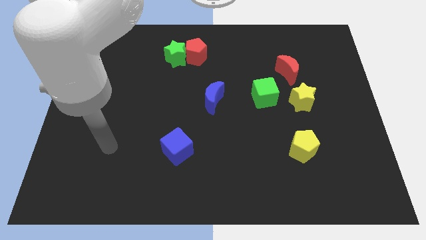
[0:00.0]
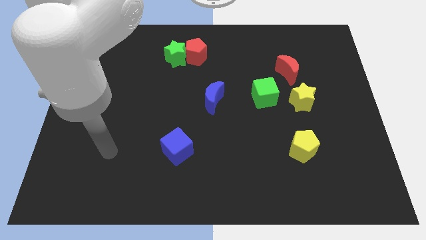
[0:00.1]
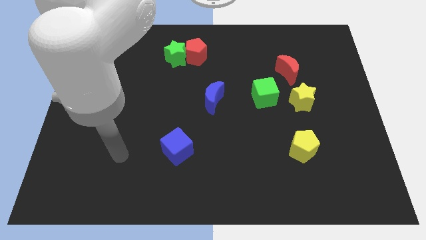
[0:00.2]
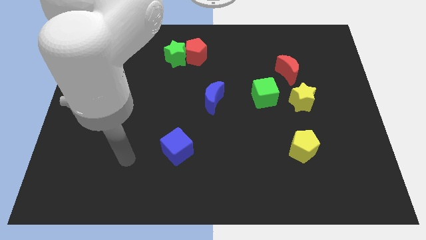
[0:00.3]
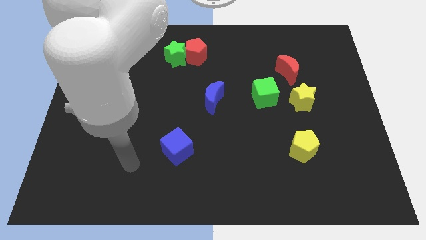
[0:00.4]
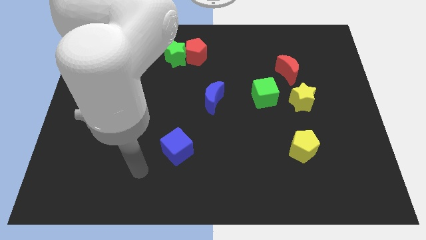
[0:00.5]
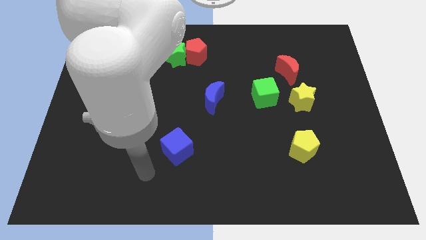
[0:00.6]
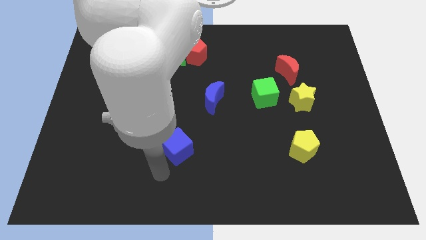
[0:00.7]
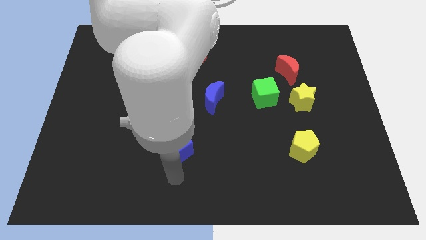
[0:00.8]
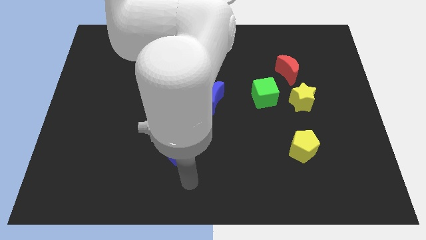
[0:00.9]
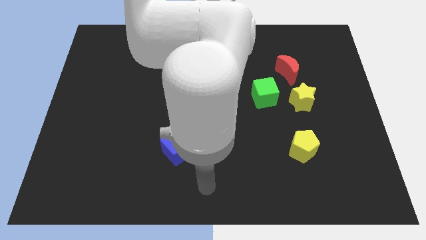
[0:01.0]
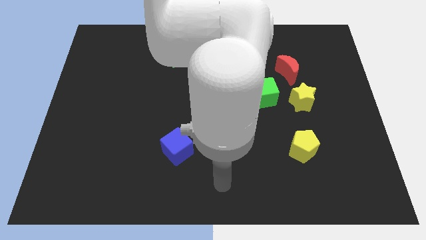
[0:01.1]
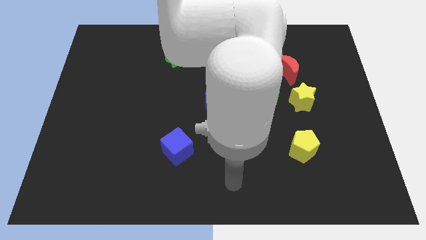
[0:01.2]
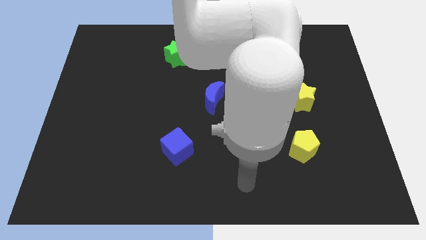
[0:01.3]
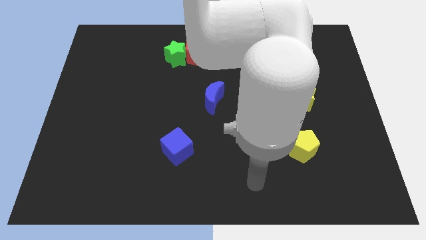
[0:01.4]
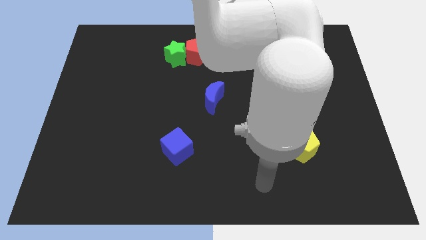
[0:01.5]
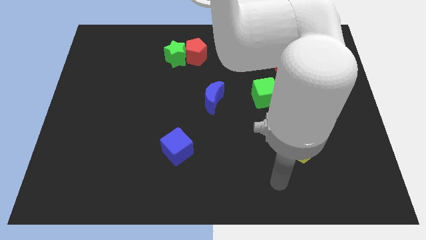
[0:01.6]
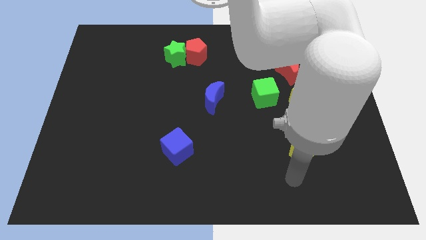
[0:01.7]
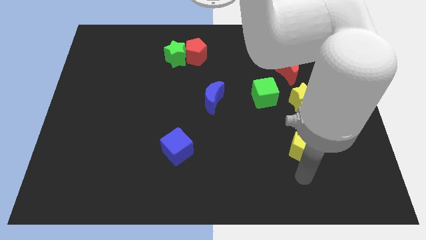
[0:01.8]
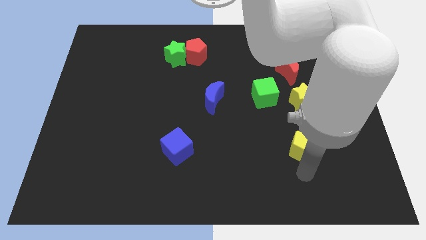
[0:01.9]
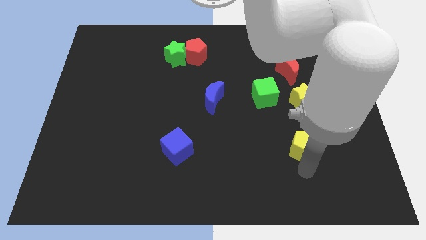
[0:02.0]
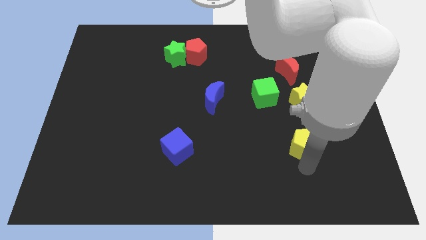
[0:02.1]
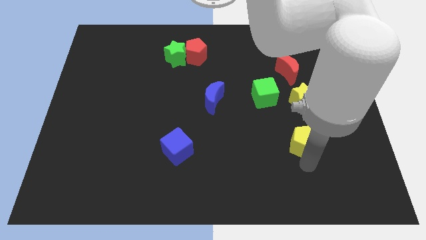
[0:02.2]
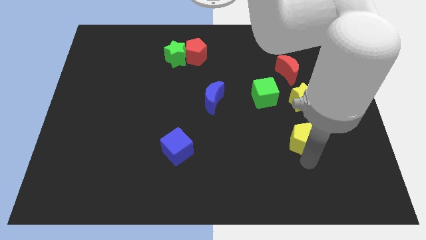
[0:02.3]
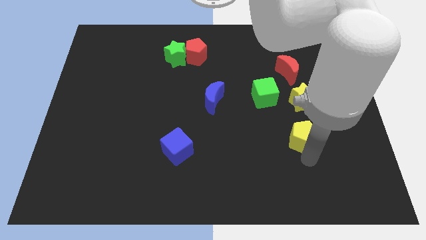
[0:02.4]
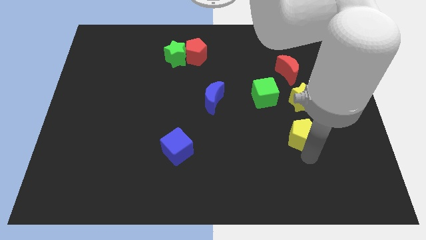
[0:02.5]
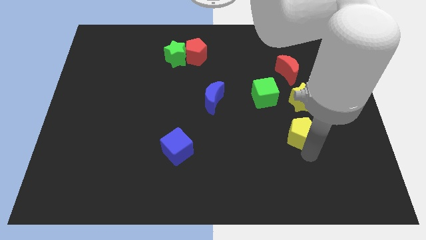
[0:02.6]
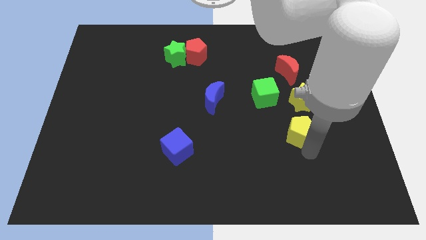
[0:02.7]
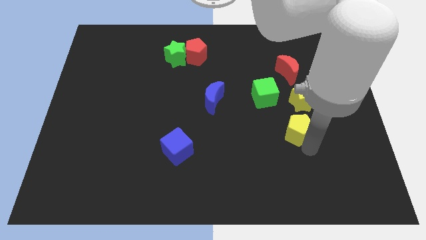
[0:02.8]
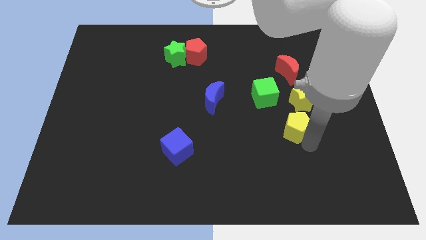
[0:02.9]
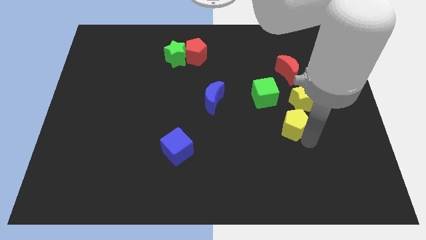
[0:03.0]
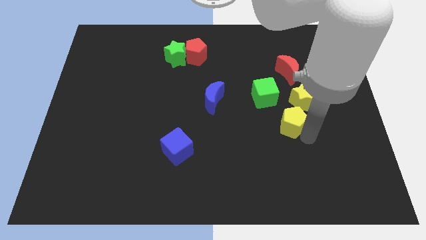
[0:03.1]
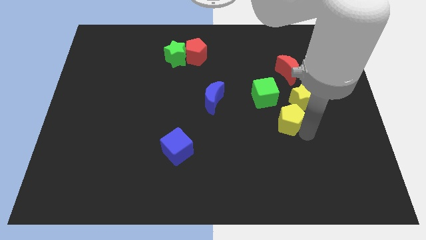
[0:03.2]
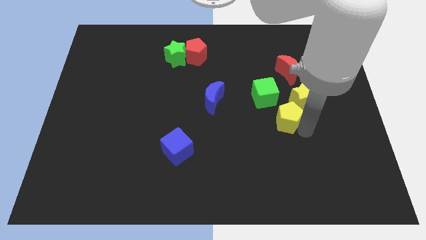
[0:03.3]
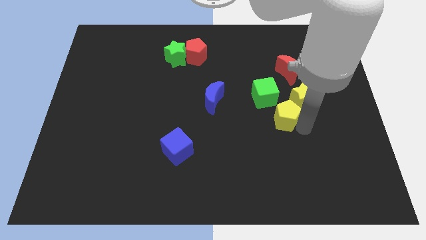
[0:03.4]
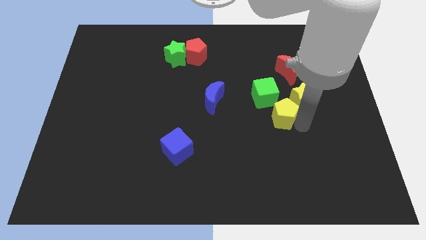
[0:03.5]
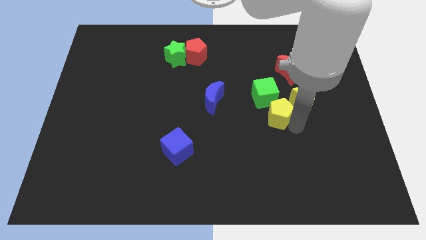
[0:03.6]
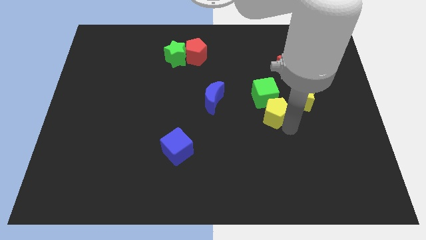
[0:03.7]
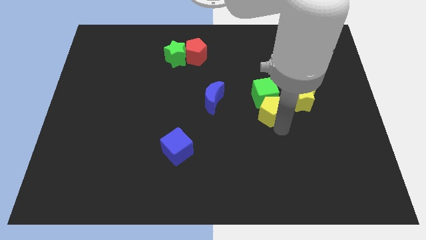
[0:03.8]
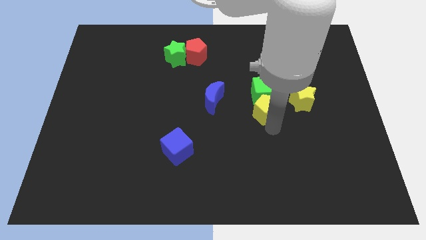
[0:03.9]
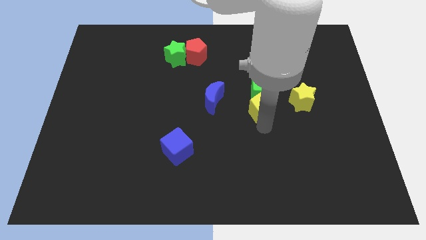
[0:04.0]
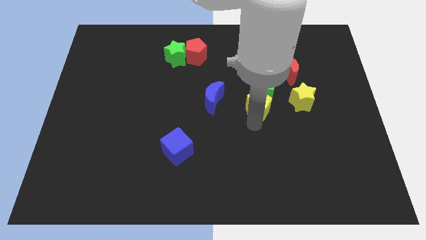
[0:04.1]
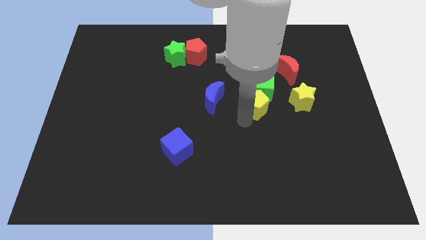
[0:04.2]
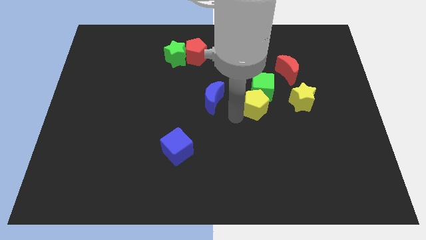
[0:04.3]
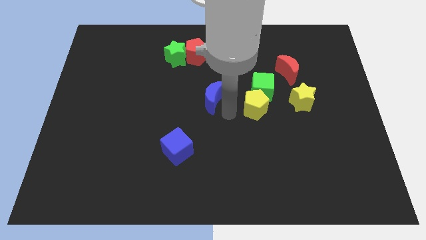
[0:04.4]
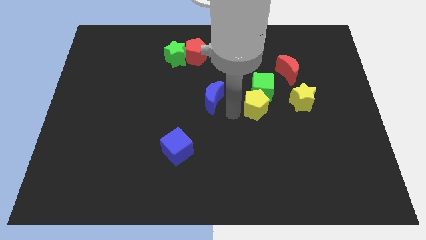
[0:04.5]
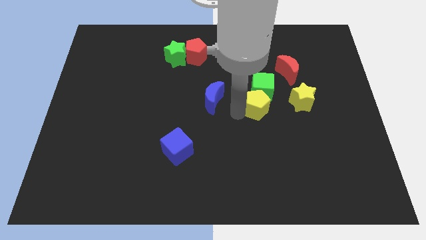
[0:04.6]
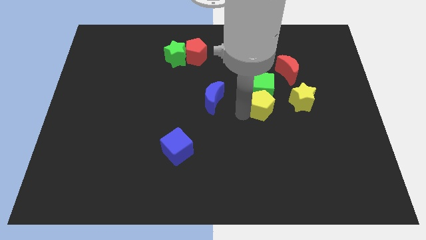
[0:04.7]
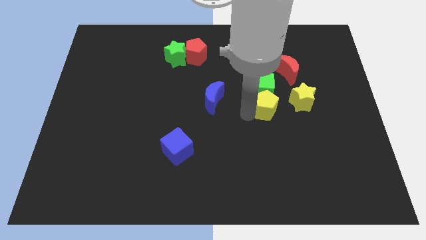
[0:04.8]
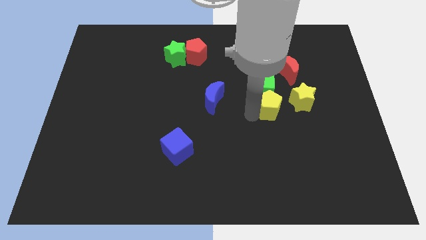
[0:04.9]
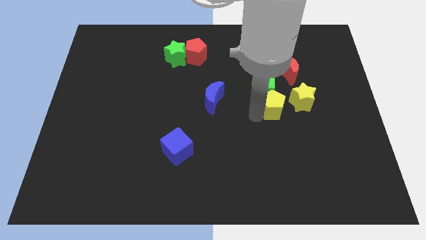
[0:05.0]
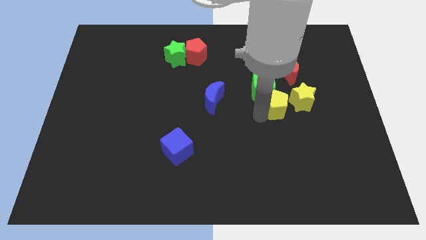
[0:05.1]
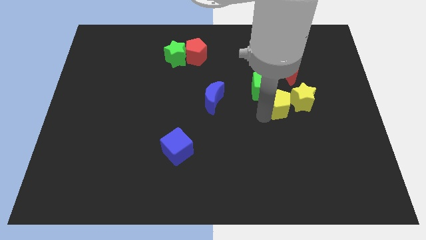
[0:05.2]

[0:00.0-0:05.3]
put the yellow pentagon to the yellow star

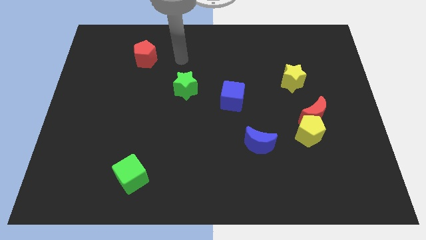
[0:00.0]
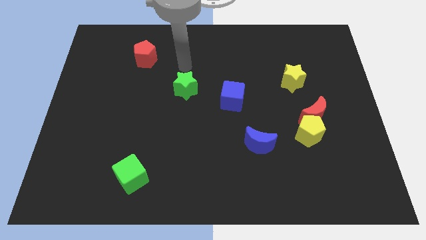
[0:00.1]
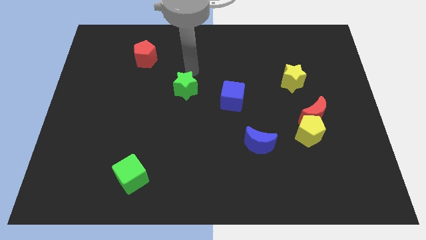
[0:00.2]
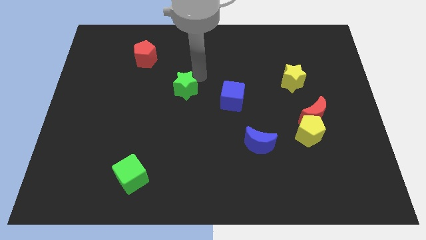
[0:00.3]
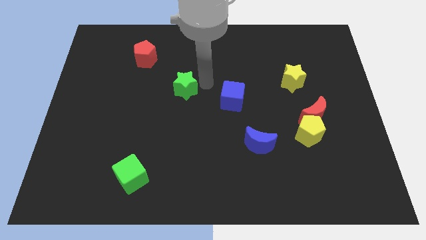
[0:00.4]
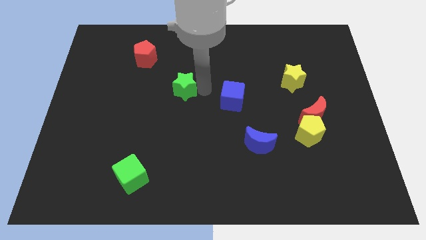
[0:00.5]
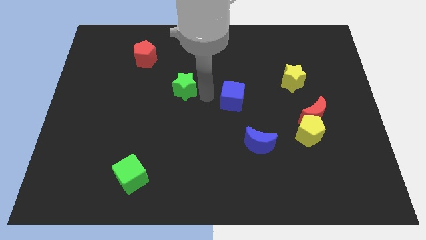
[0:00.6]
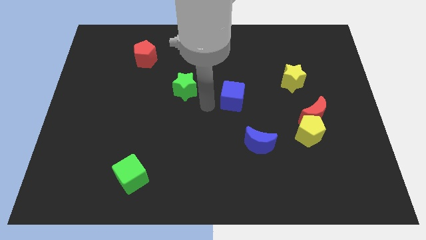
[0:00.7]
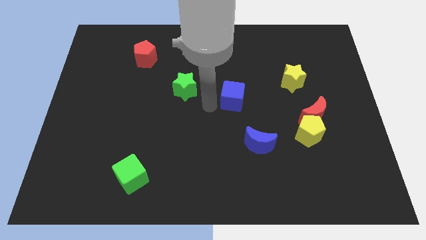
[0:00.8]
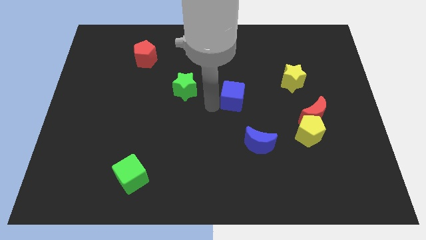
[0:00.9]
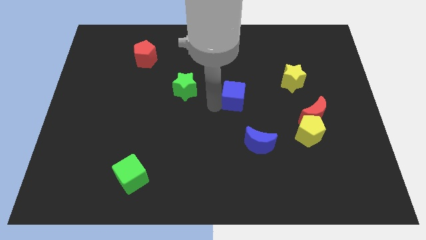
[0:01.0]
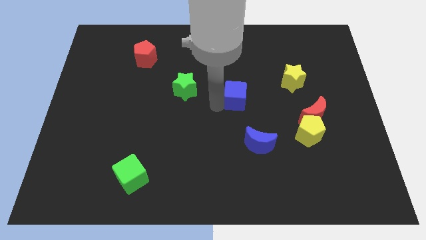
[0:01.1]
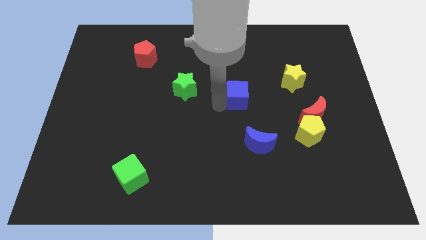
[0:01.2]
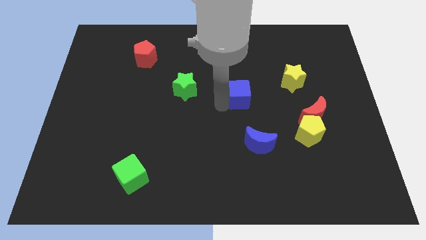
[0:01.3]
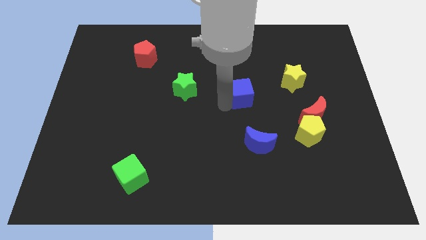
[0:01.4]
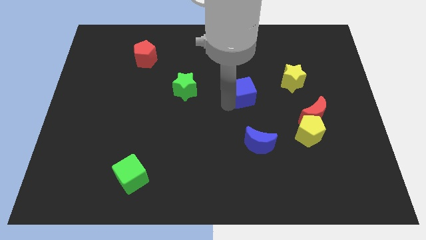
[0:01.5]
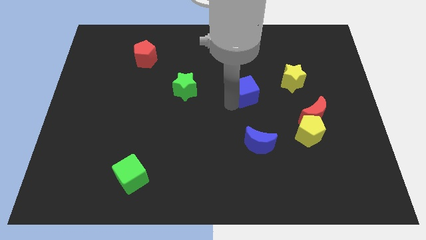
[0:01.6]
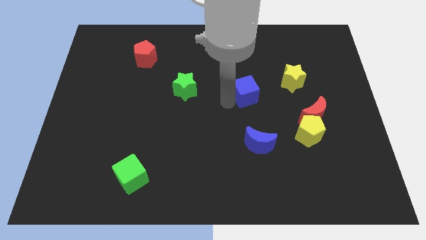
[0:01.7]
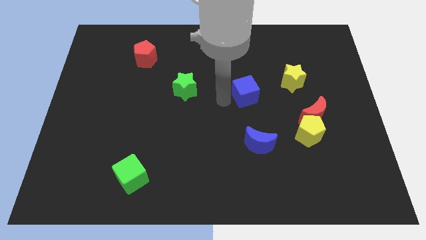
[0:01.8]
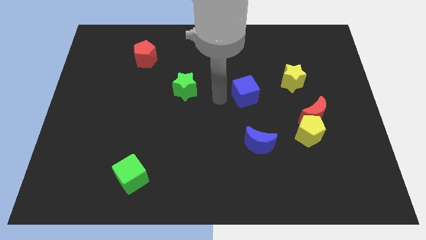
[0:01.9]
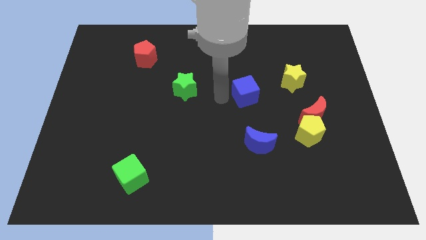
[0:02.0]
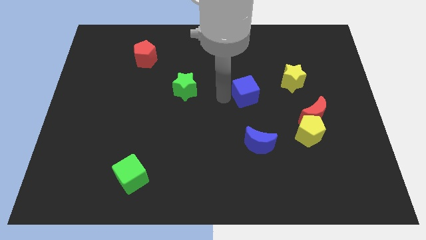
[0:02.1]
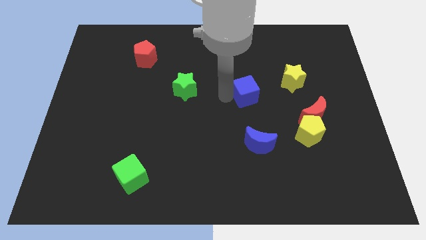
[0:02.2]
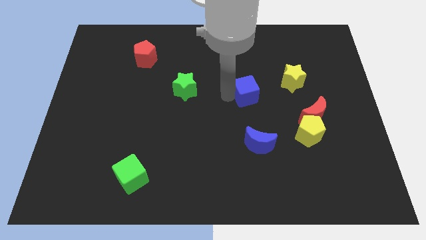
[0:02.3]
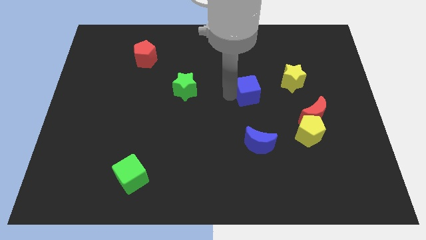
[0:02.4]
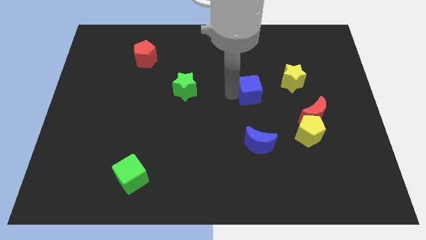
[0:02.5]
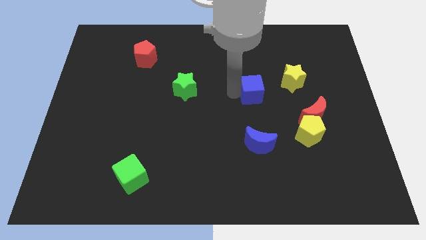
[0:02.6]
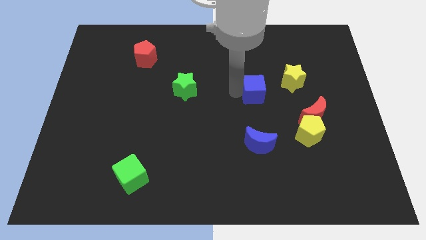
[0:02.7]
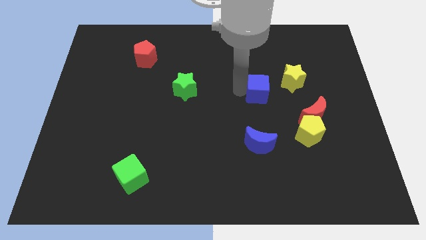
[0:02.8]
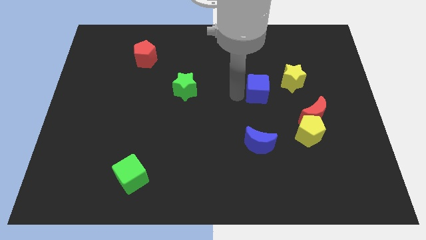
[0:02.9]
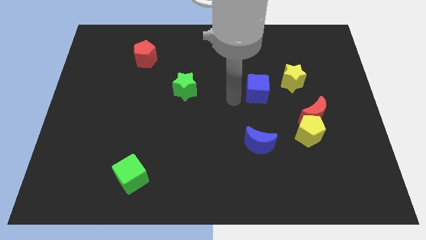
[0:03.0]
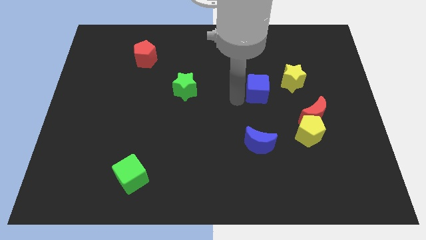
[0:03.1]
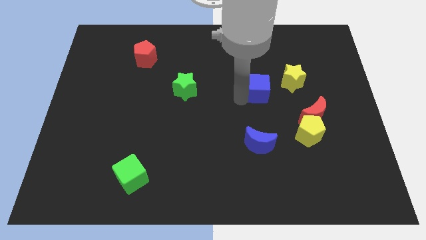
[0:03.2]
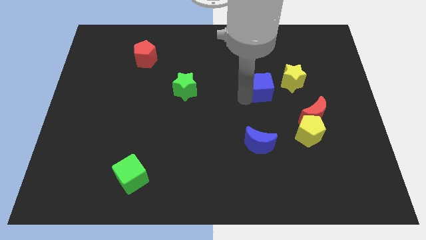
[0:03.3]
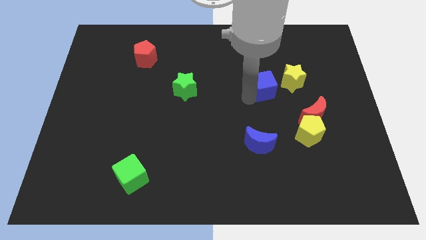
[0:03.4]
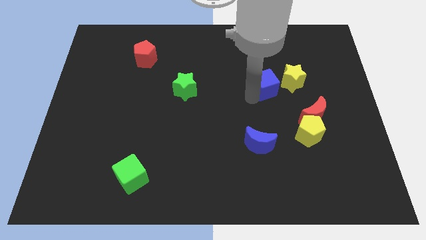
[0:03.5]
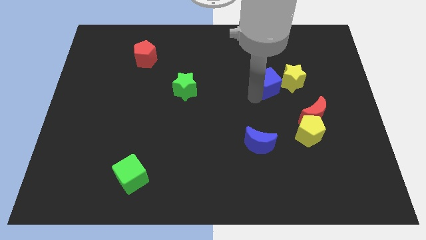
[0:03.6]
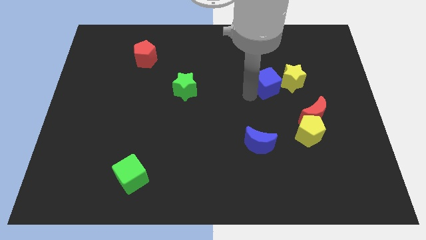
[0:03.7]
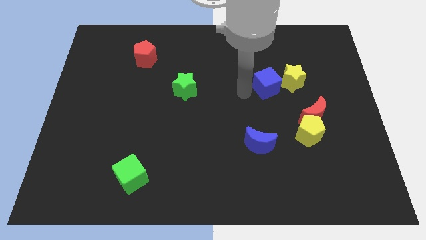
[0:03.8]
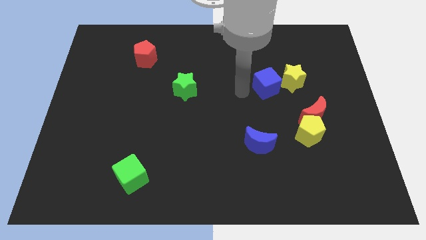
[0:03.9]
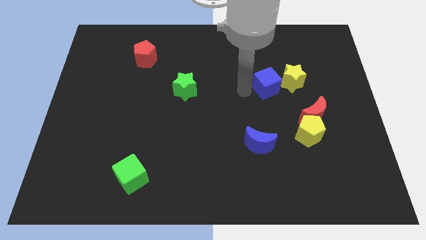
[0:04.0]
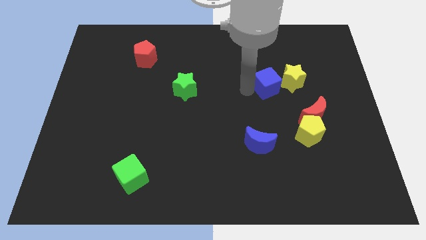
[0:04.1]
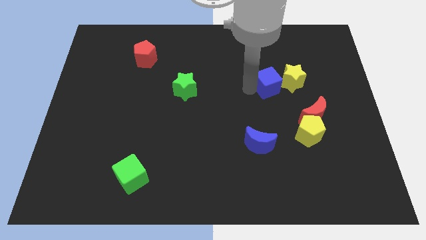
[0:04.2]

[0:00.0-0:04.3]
move the blue cube to the yellow star
